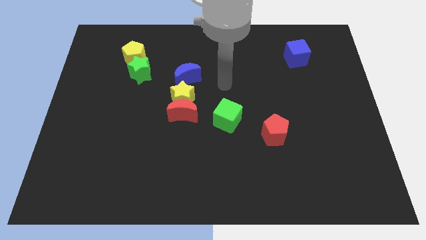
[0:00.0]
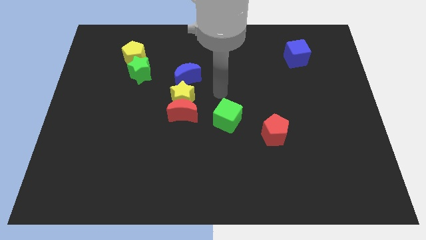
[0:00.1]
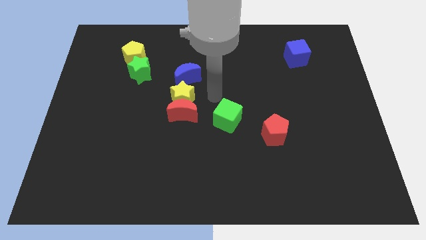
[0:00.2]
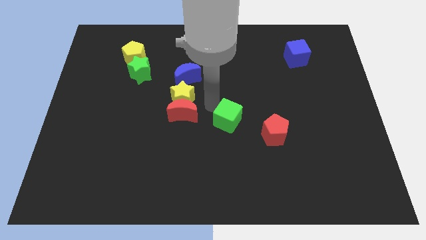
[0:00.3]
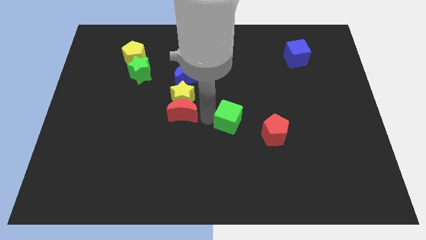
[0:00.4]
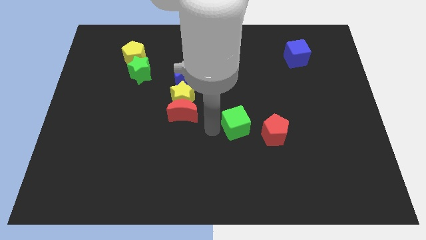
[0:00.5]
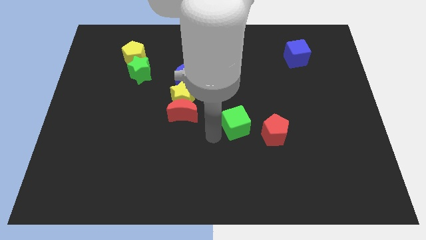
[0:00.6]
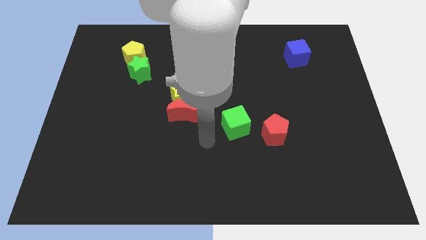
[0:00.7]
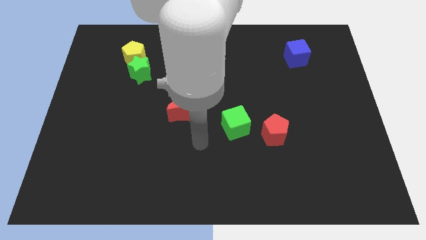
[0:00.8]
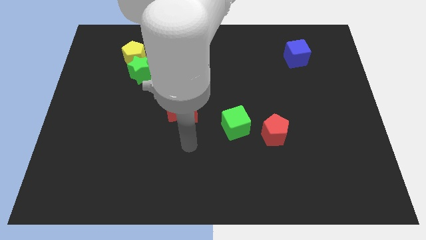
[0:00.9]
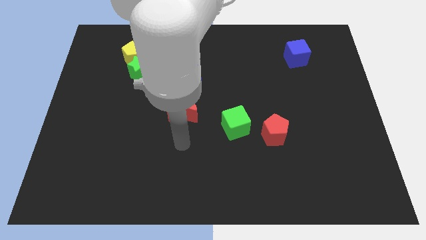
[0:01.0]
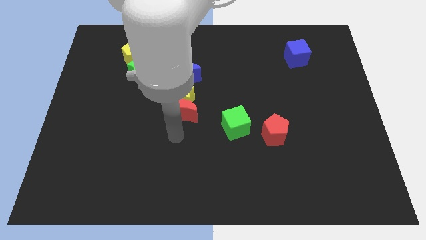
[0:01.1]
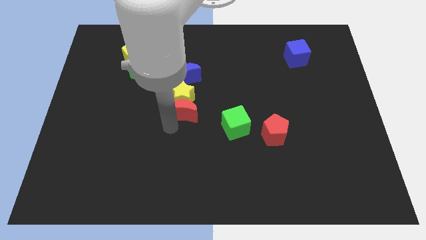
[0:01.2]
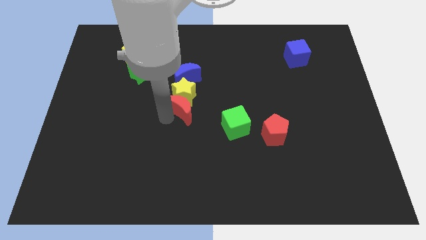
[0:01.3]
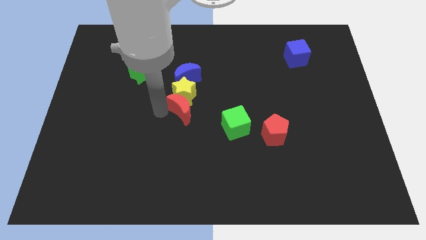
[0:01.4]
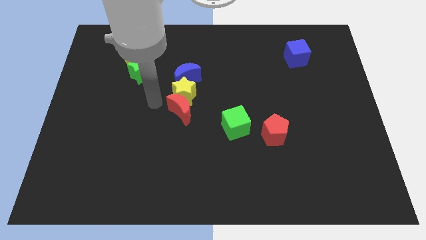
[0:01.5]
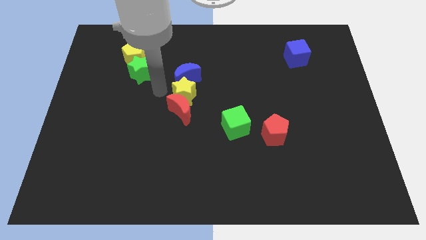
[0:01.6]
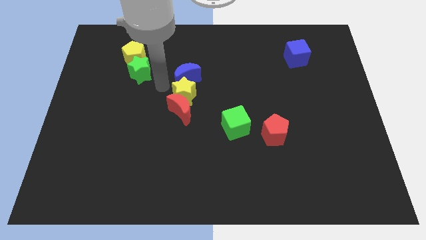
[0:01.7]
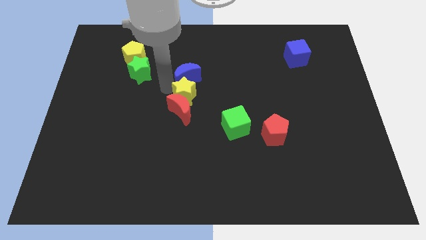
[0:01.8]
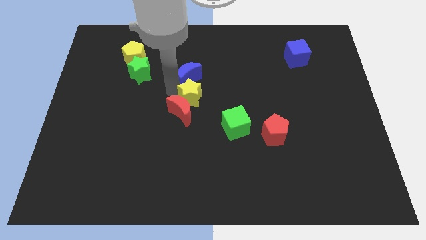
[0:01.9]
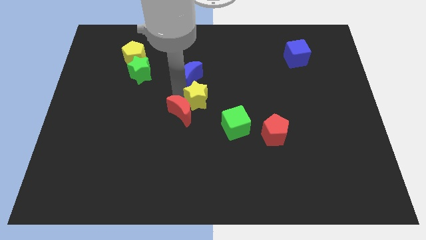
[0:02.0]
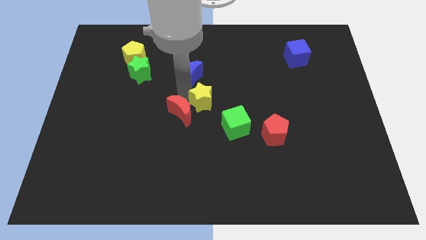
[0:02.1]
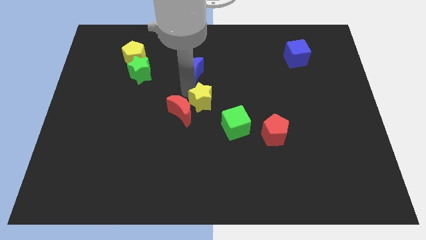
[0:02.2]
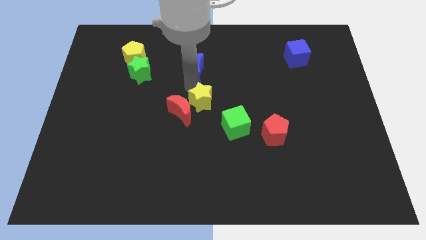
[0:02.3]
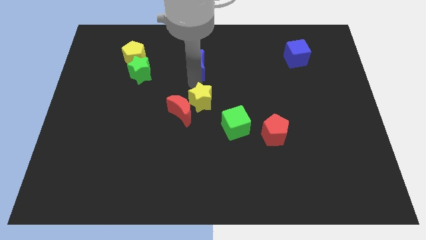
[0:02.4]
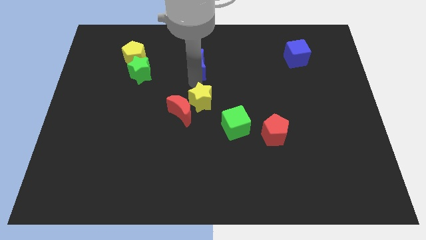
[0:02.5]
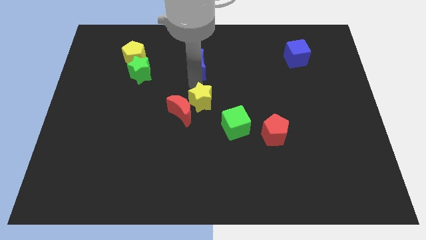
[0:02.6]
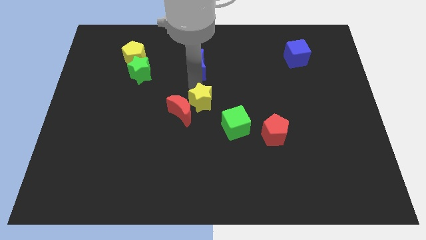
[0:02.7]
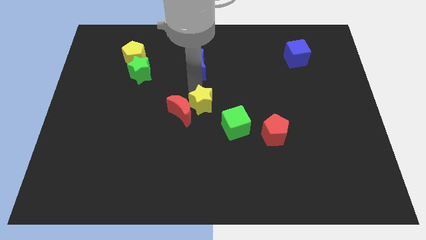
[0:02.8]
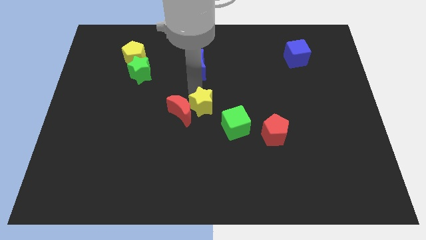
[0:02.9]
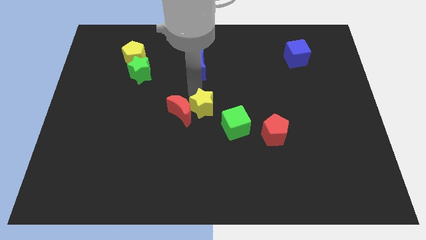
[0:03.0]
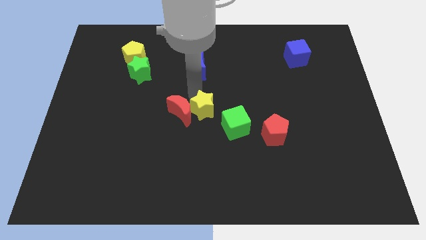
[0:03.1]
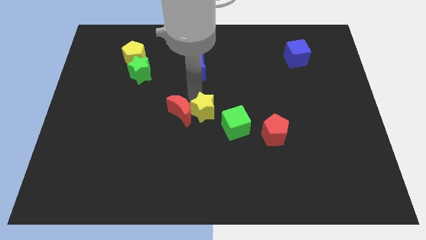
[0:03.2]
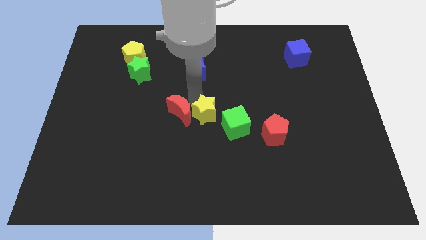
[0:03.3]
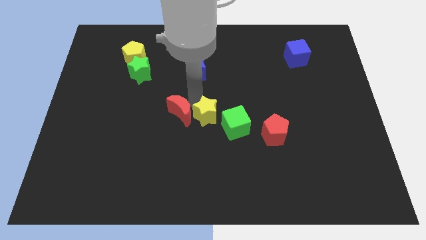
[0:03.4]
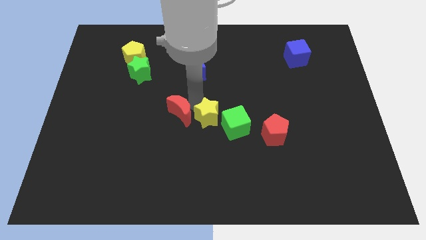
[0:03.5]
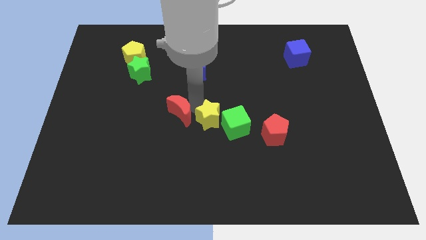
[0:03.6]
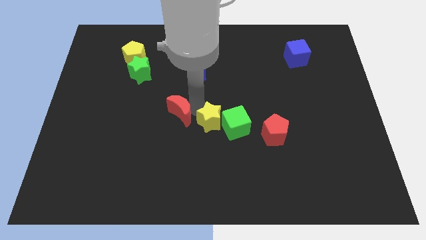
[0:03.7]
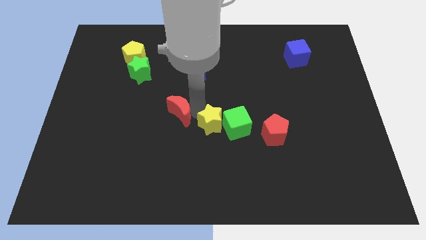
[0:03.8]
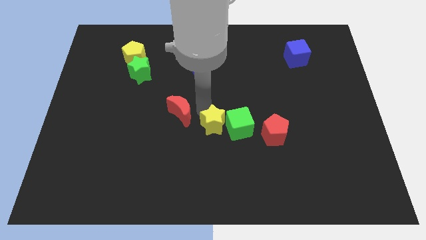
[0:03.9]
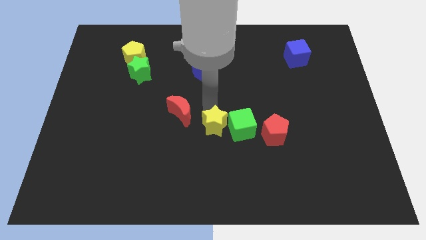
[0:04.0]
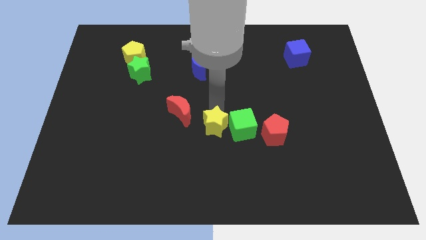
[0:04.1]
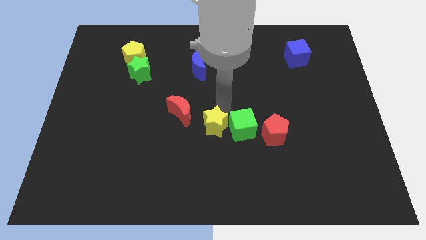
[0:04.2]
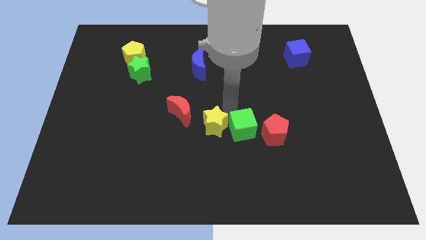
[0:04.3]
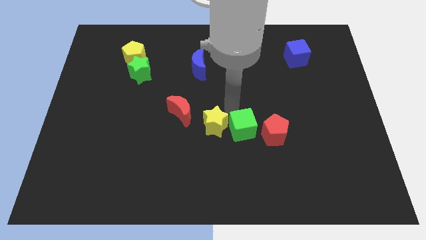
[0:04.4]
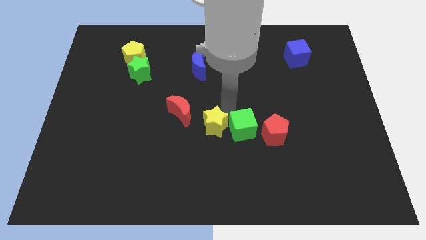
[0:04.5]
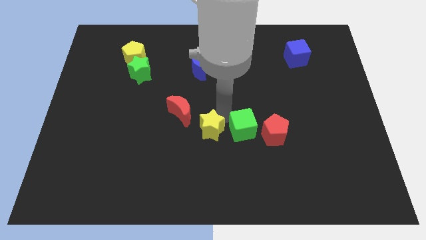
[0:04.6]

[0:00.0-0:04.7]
slide the yellow star slightly downwards

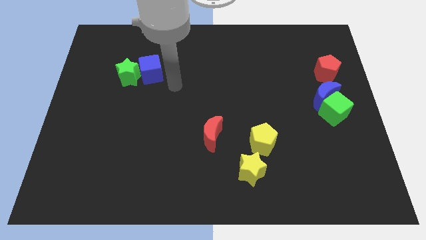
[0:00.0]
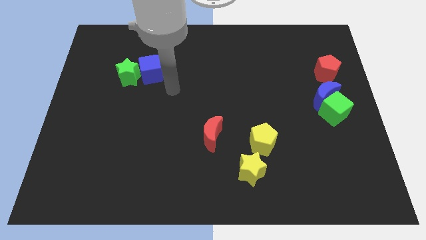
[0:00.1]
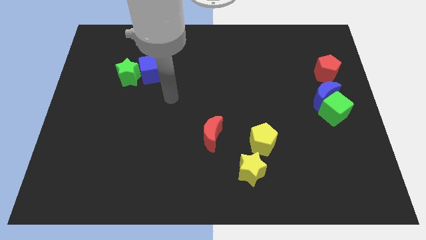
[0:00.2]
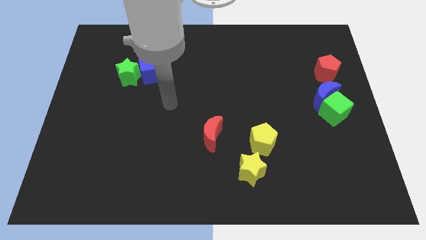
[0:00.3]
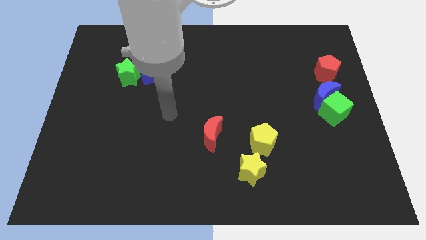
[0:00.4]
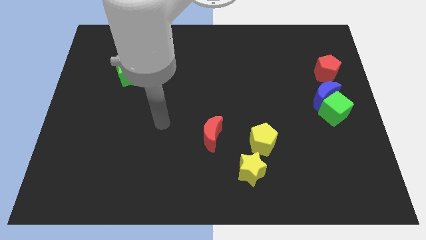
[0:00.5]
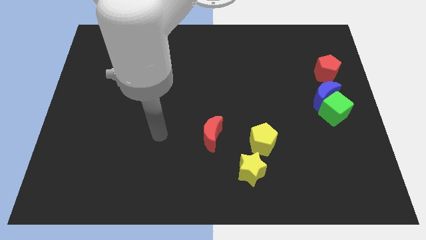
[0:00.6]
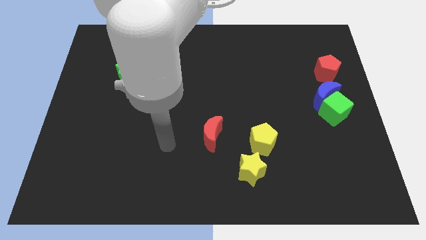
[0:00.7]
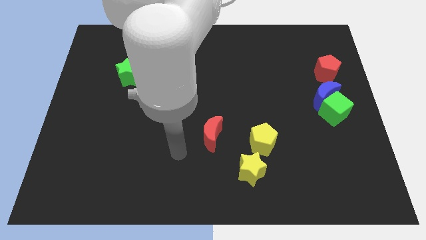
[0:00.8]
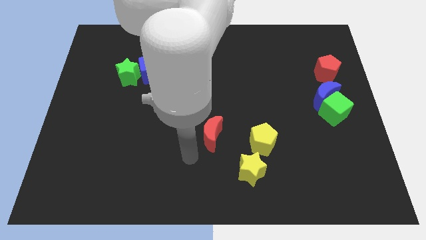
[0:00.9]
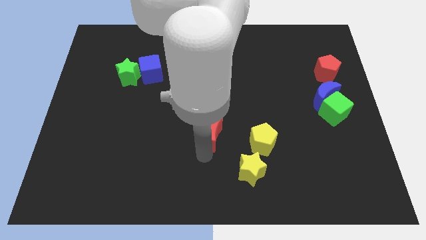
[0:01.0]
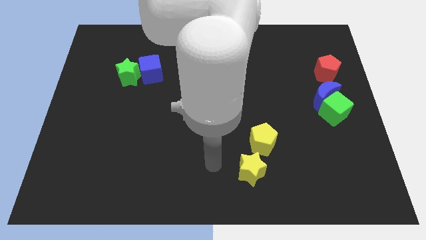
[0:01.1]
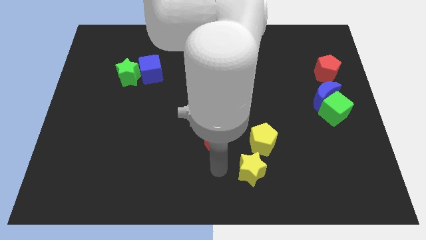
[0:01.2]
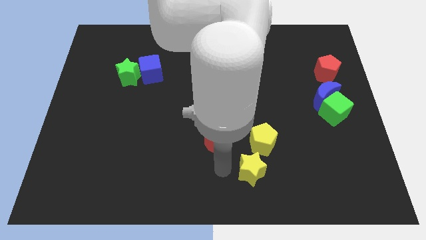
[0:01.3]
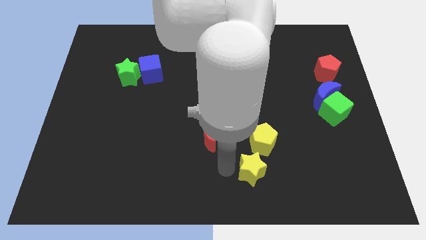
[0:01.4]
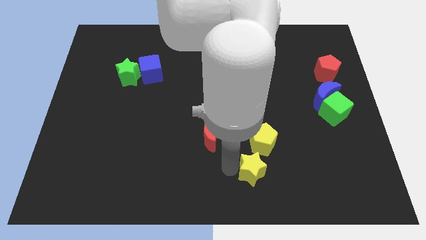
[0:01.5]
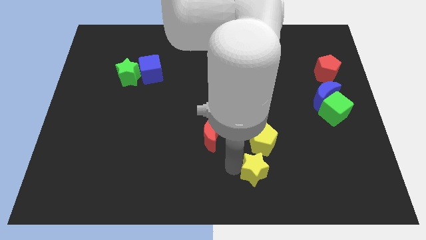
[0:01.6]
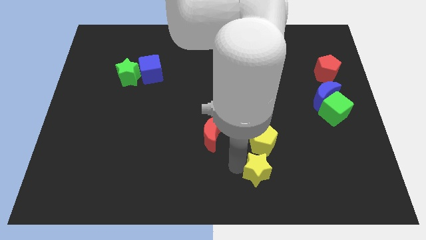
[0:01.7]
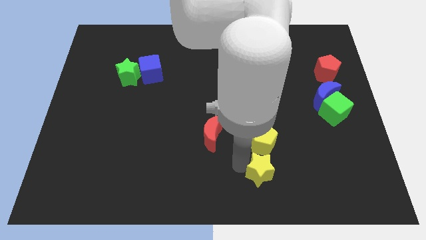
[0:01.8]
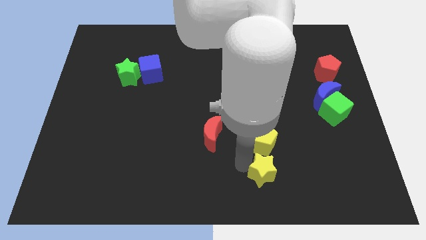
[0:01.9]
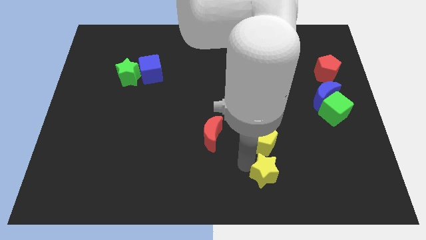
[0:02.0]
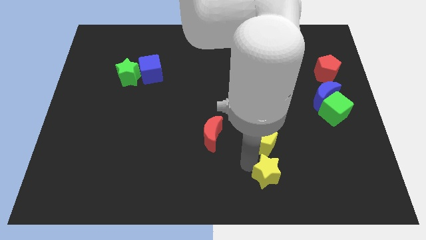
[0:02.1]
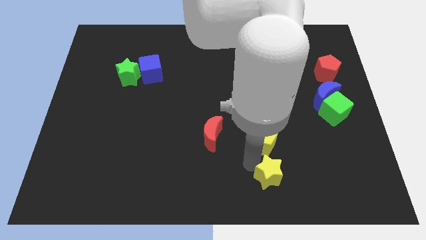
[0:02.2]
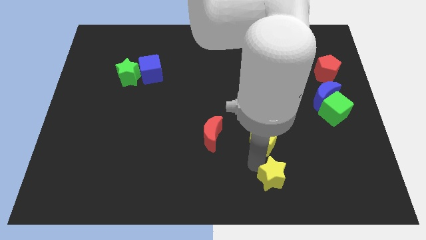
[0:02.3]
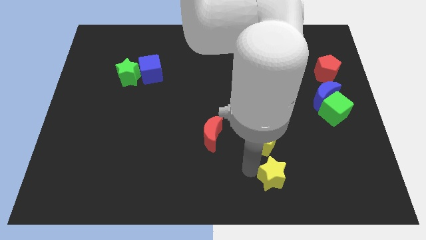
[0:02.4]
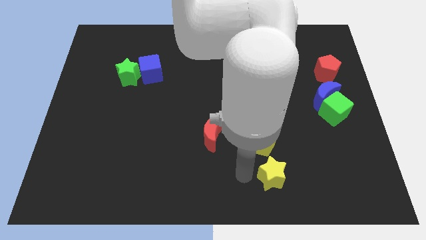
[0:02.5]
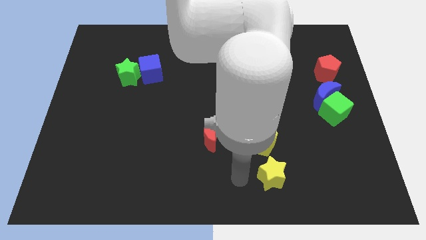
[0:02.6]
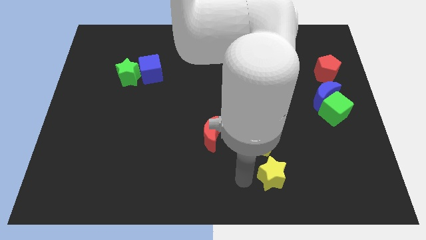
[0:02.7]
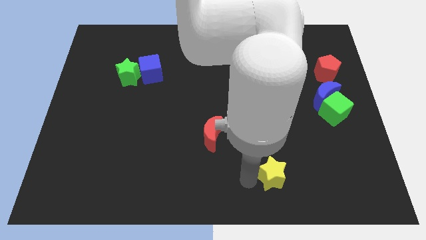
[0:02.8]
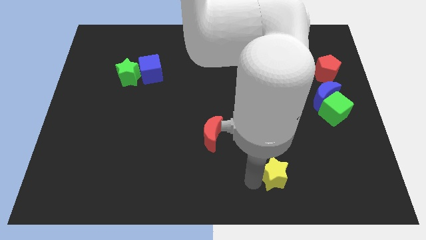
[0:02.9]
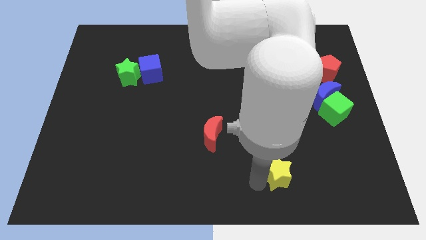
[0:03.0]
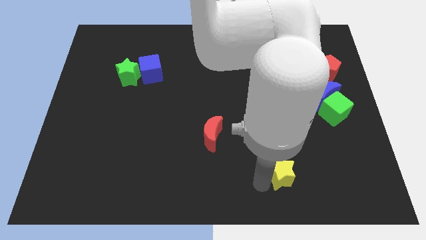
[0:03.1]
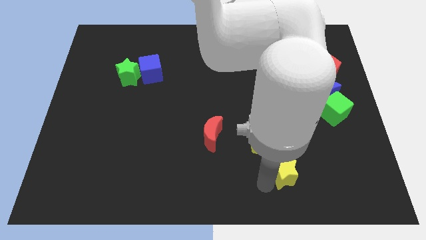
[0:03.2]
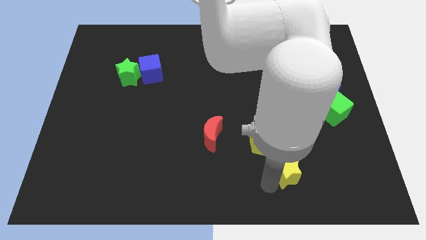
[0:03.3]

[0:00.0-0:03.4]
push the yellow star a little right
